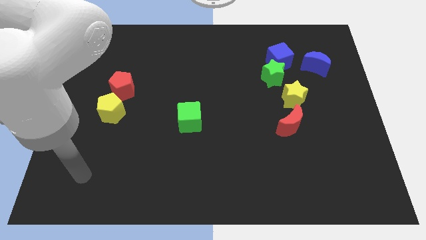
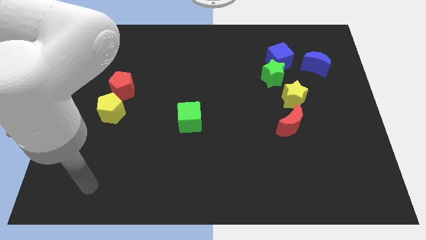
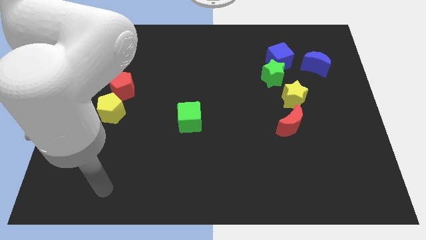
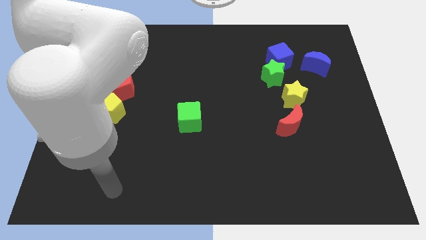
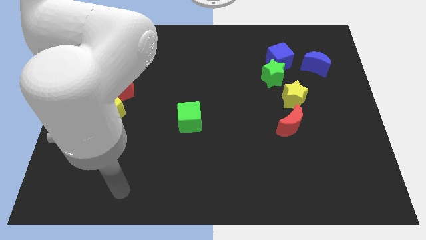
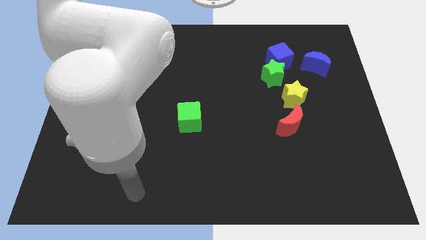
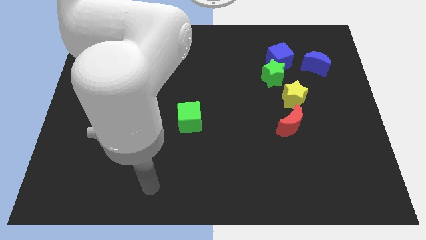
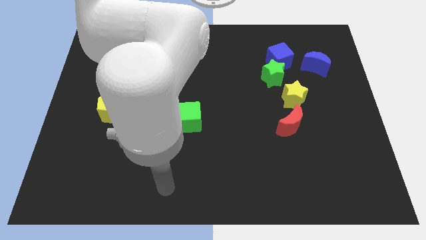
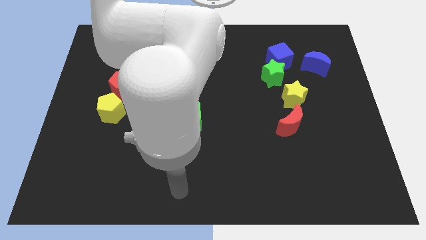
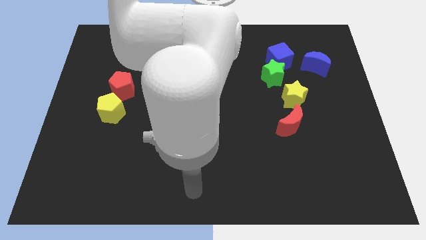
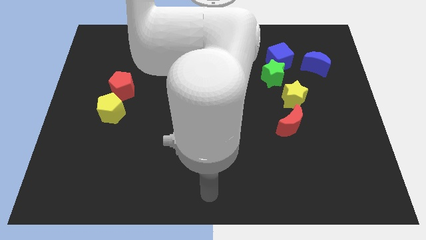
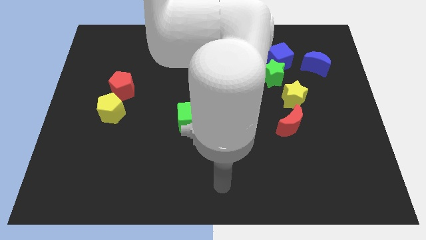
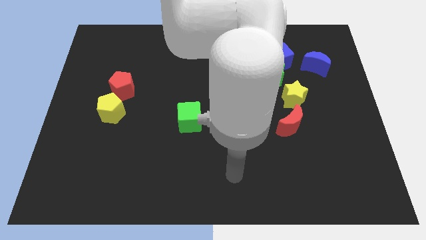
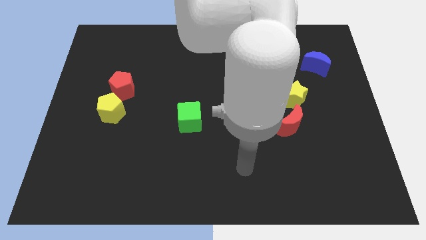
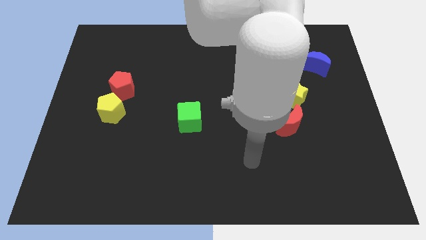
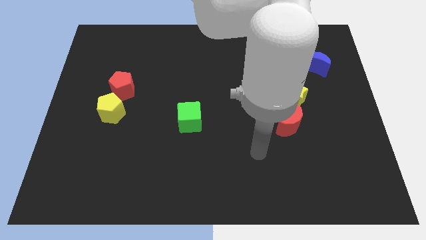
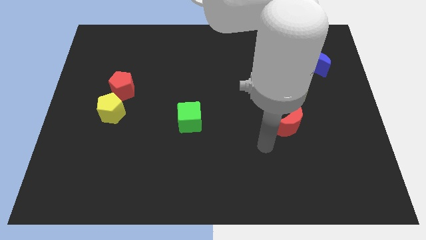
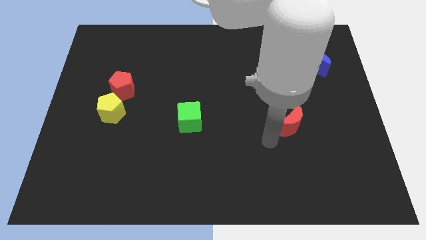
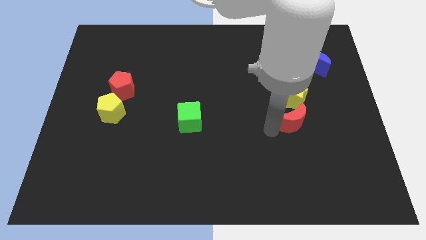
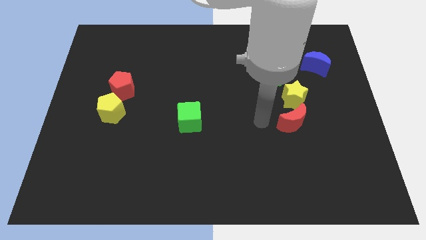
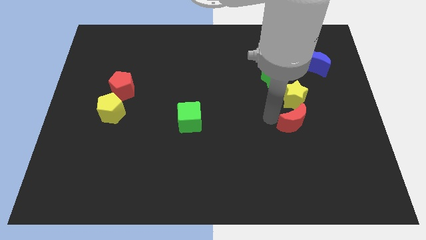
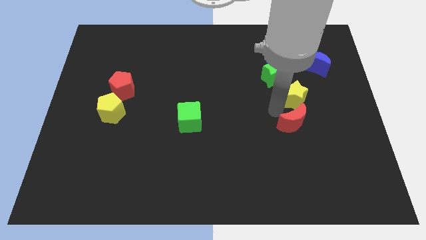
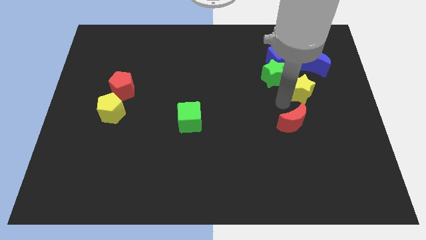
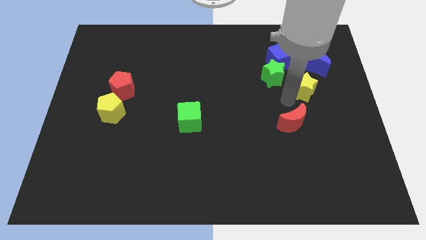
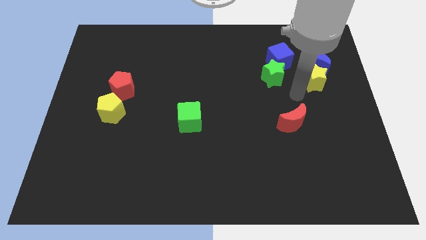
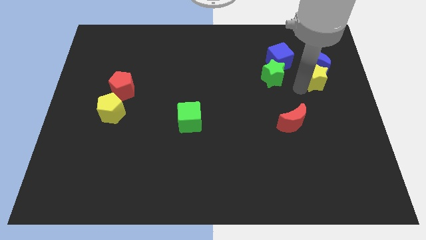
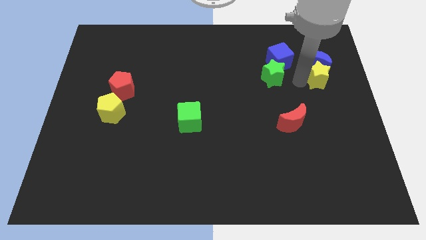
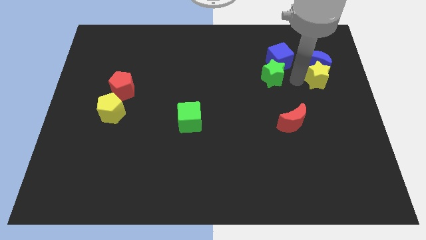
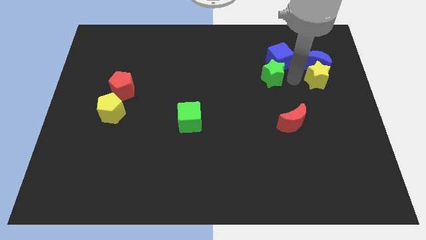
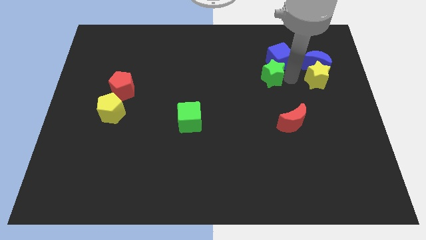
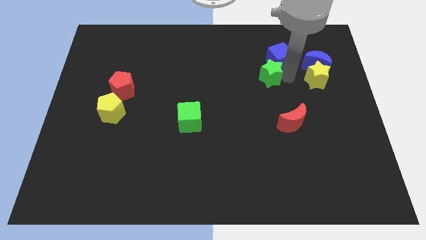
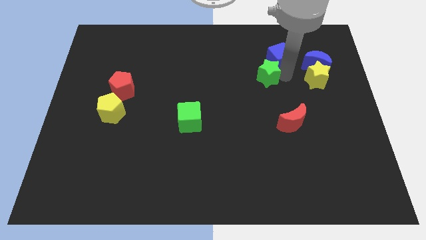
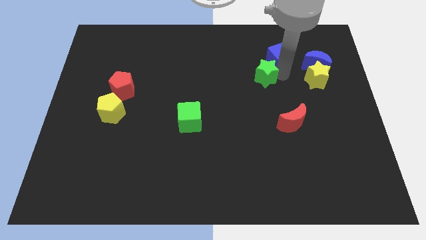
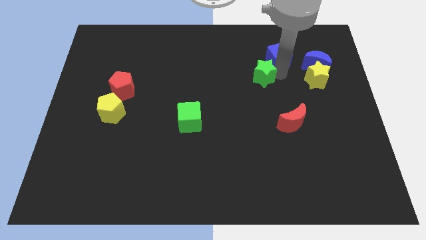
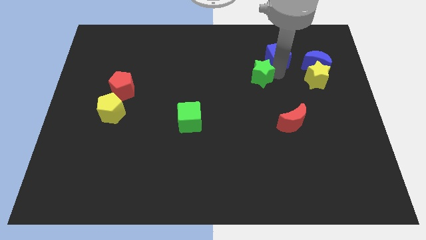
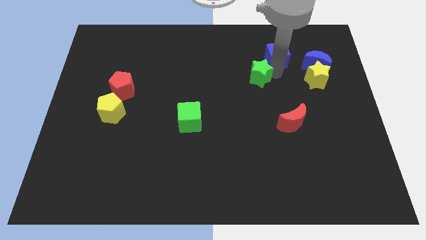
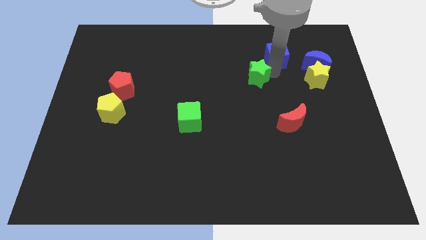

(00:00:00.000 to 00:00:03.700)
separate the green star from the blue cube and yellow star

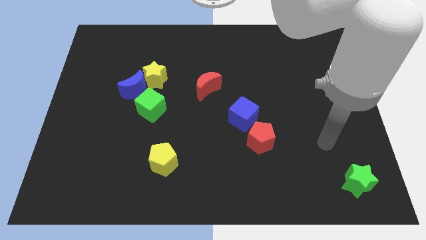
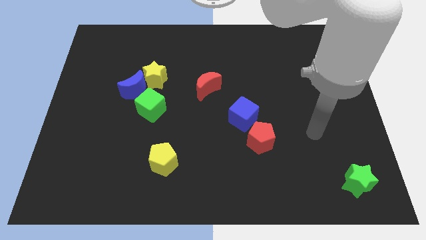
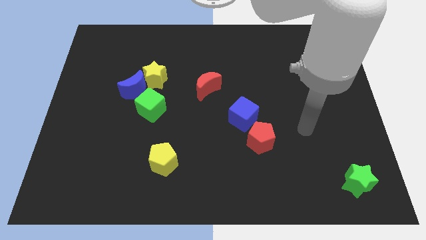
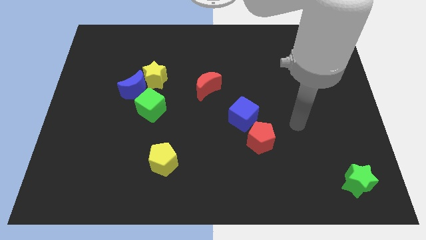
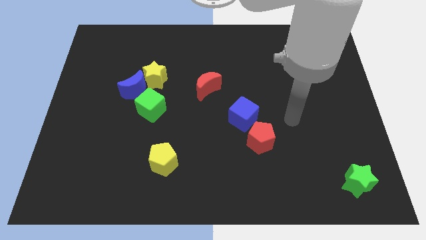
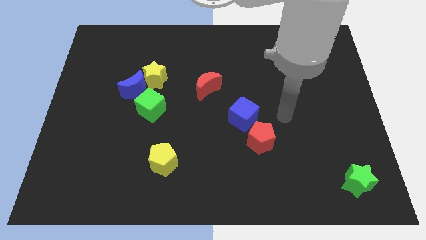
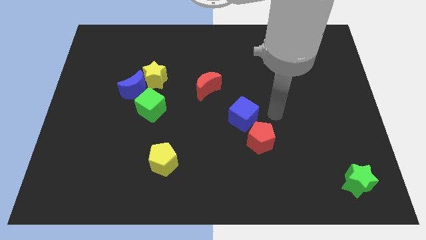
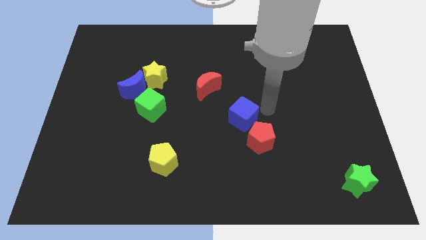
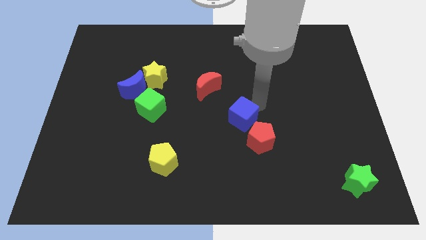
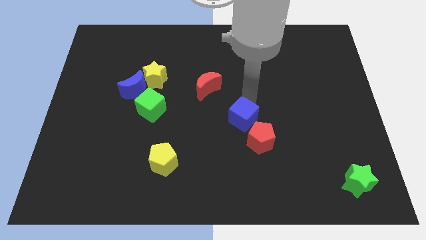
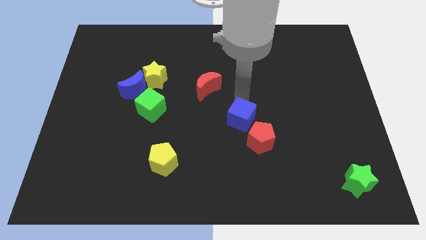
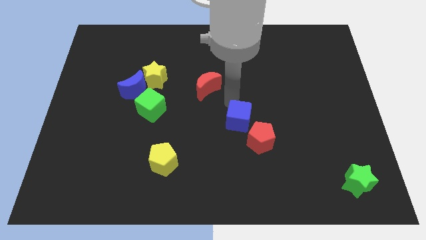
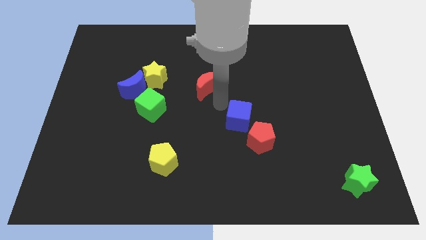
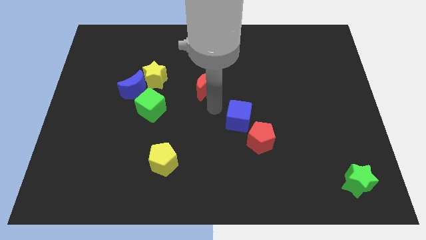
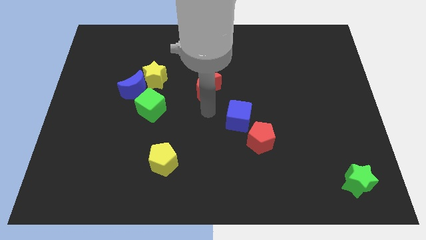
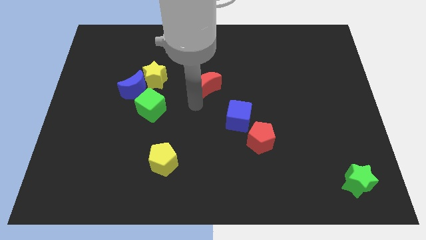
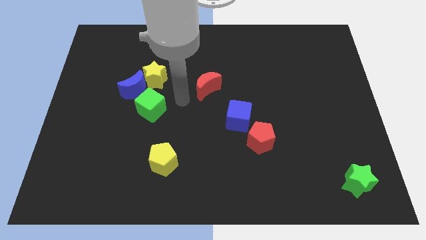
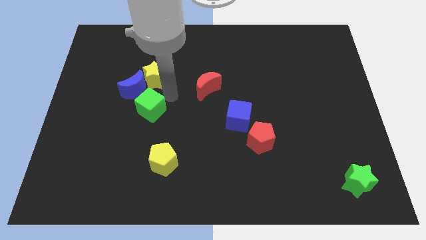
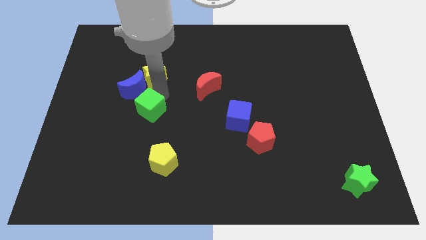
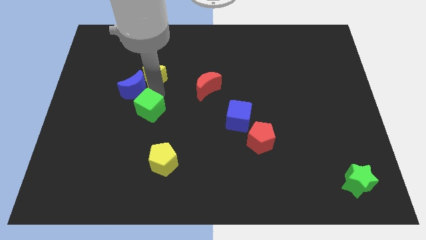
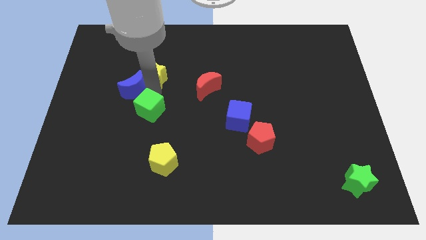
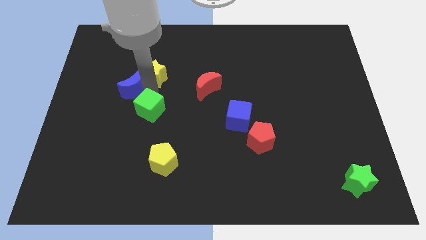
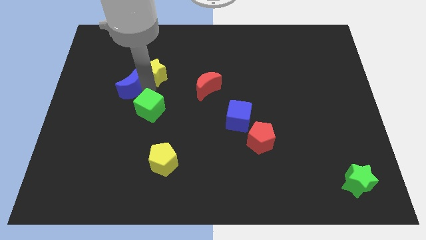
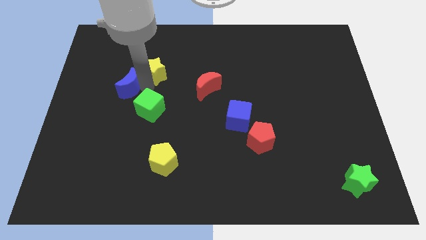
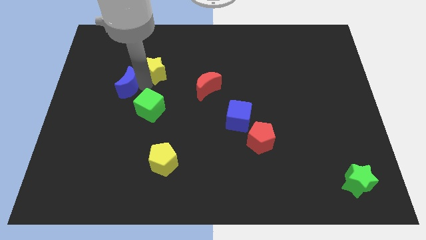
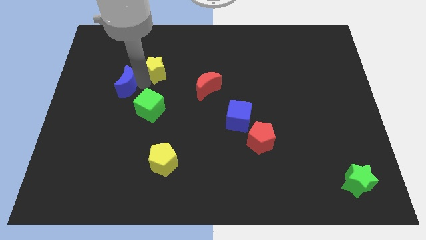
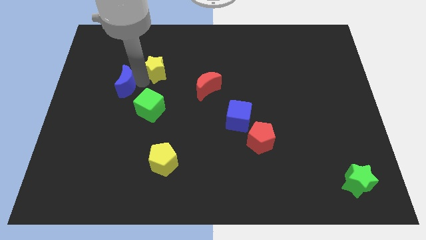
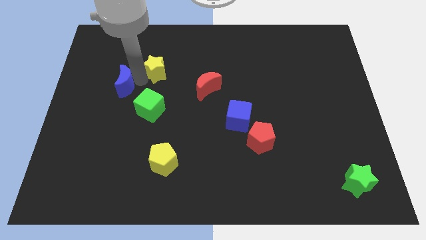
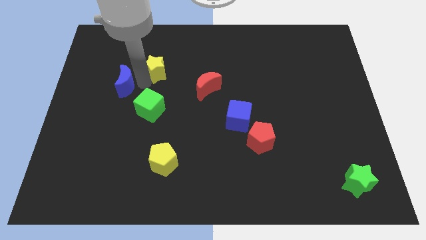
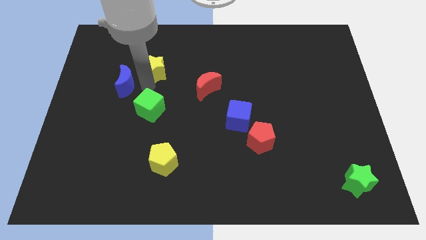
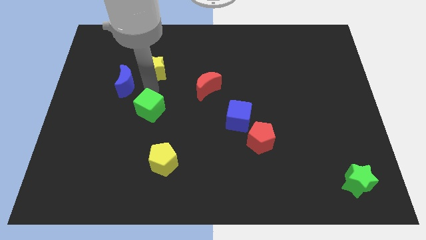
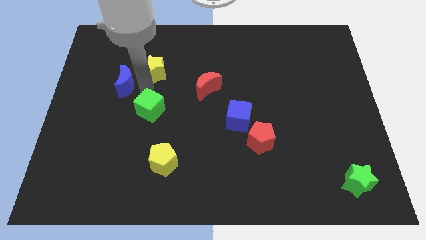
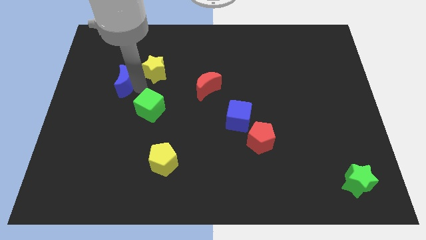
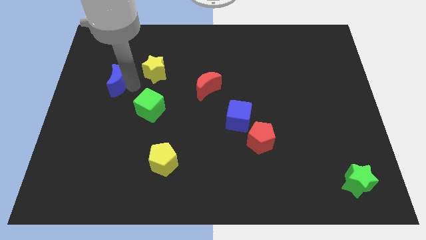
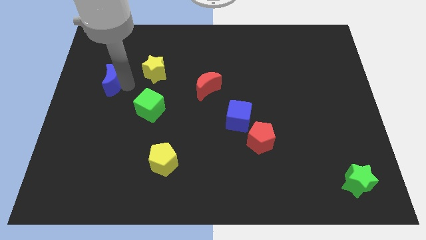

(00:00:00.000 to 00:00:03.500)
move the blue moon away from the yellow star and green cube

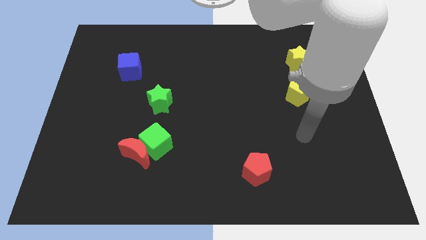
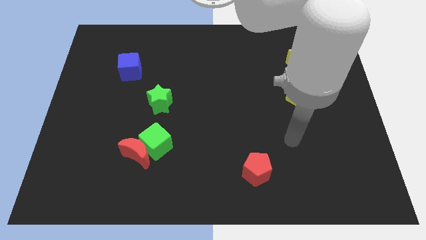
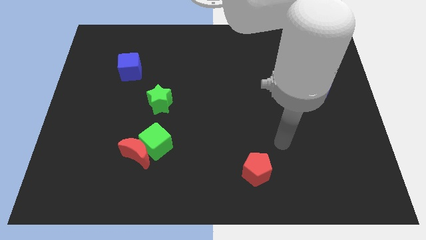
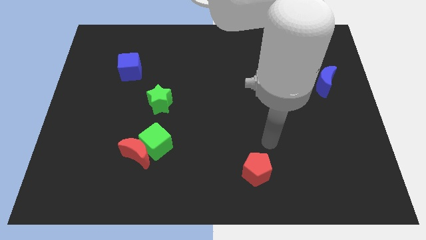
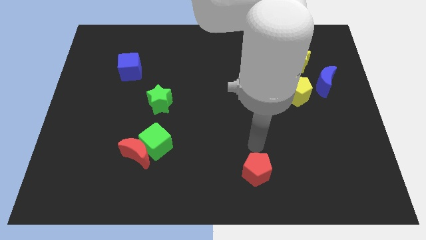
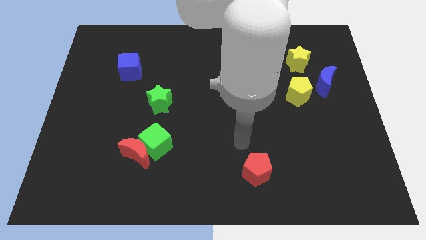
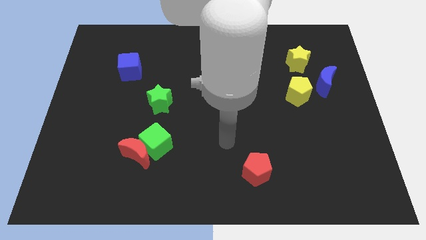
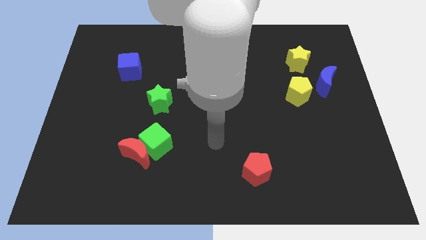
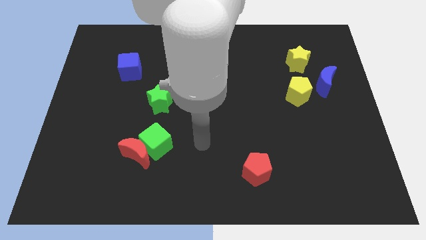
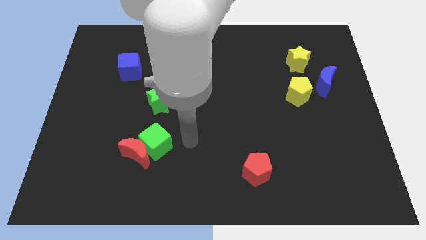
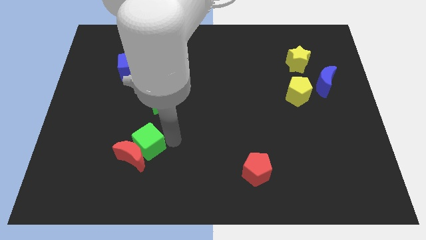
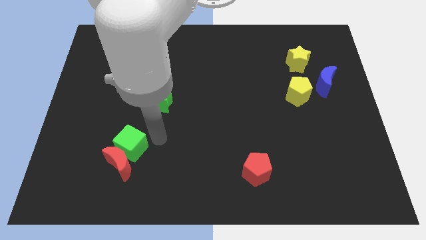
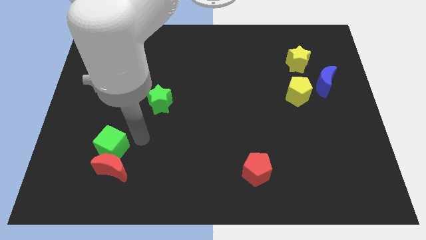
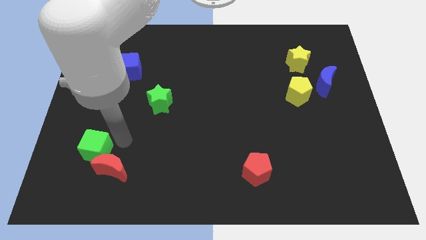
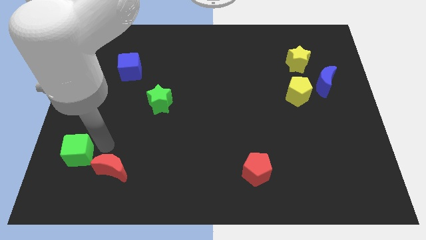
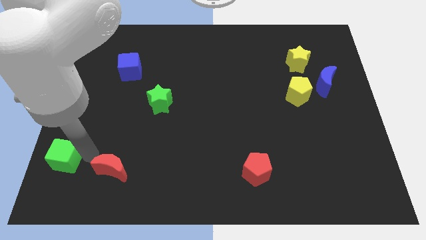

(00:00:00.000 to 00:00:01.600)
move the red moon away from the green cube

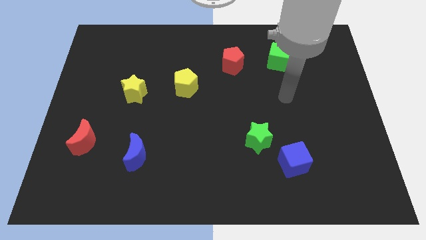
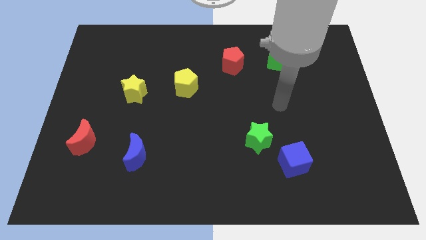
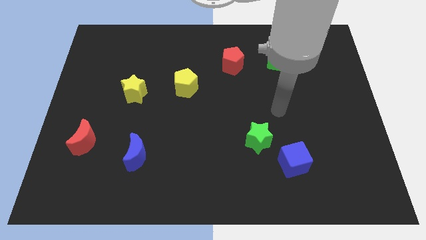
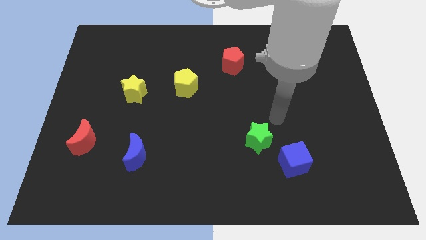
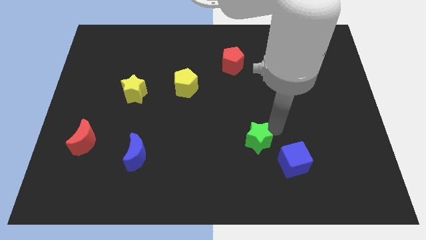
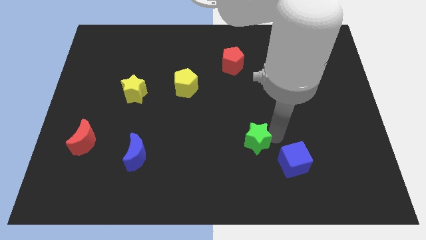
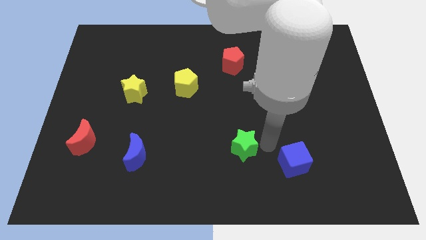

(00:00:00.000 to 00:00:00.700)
pull the blue cube apart from the green star
